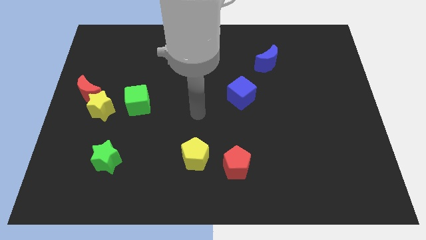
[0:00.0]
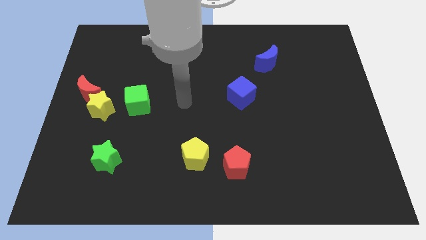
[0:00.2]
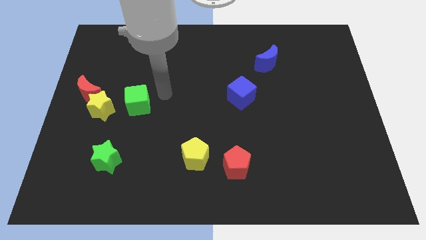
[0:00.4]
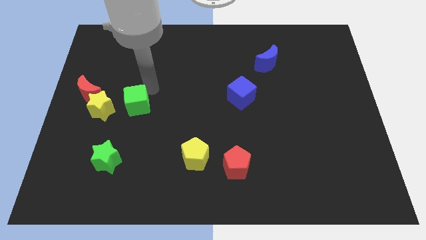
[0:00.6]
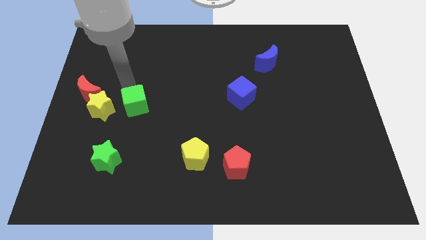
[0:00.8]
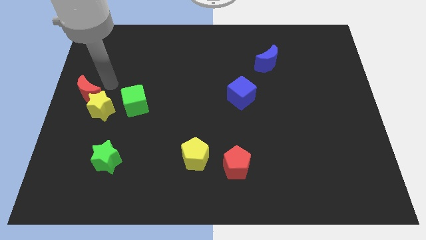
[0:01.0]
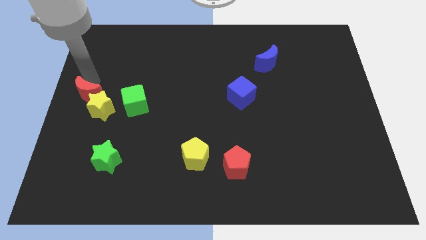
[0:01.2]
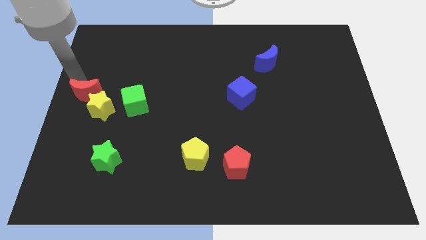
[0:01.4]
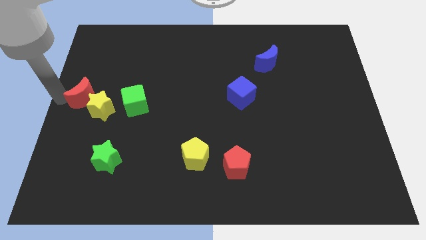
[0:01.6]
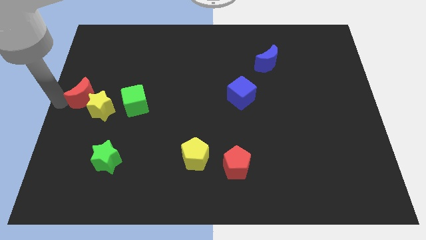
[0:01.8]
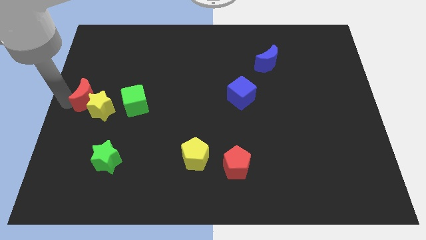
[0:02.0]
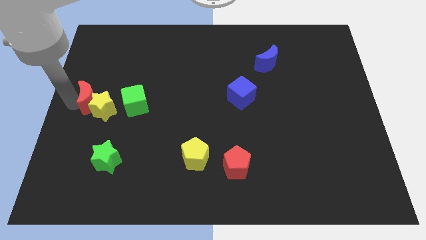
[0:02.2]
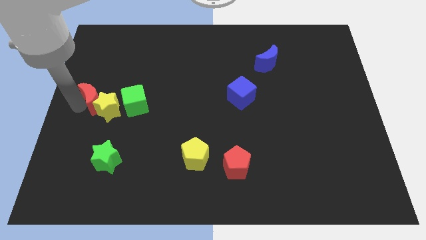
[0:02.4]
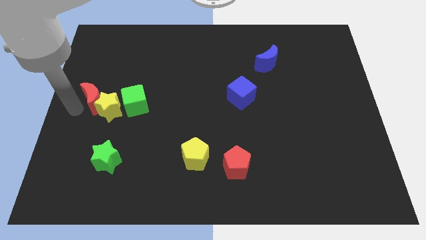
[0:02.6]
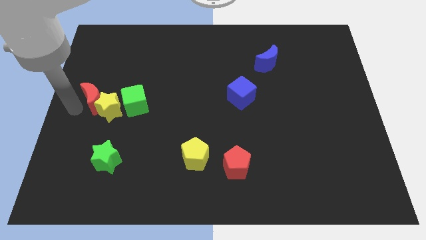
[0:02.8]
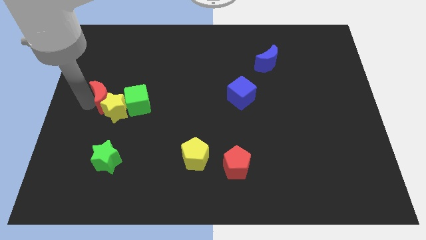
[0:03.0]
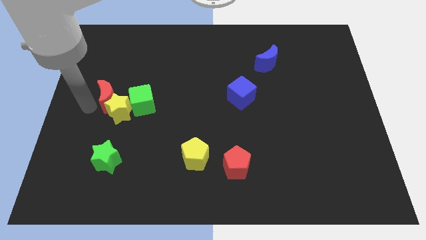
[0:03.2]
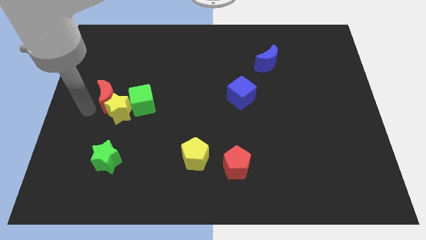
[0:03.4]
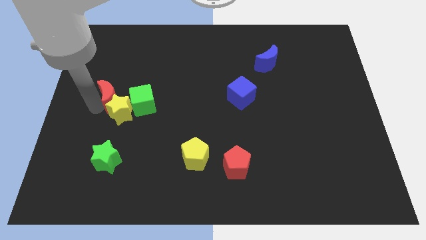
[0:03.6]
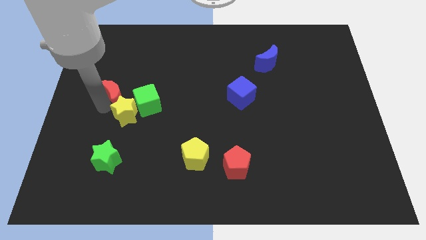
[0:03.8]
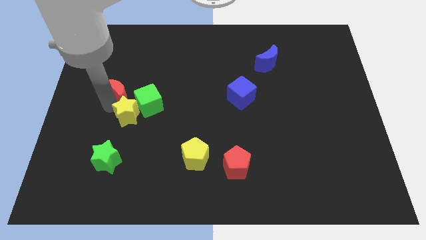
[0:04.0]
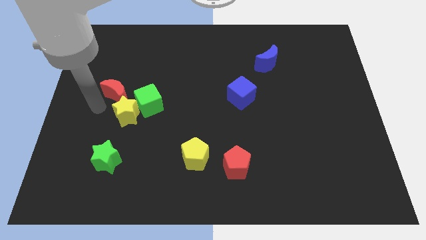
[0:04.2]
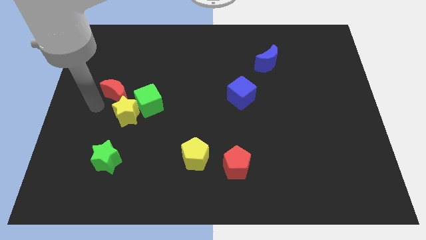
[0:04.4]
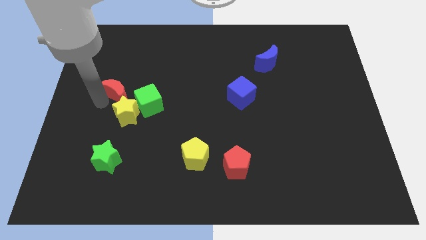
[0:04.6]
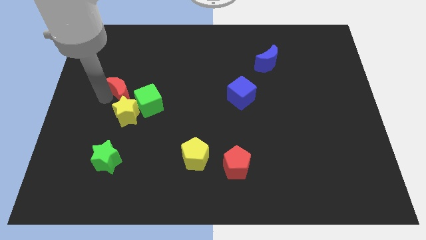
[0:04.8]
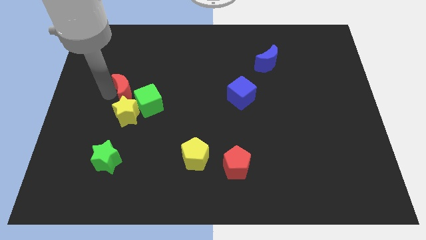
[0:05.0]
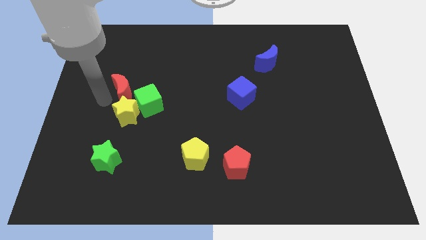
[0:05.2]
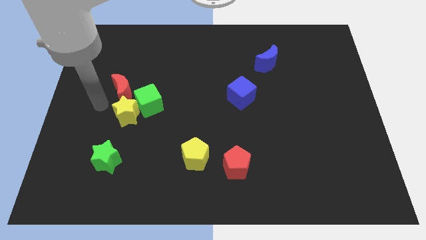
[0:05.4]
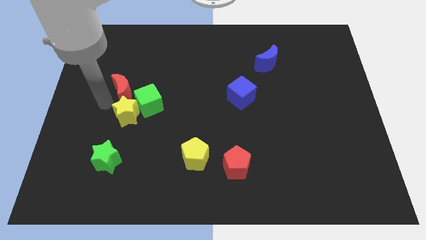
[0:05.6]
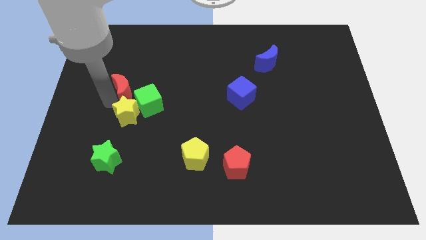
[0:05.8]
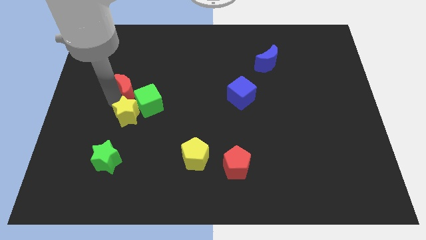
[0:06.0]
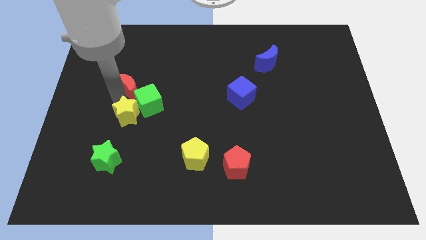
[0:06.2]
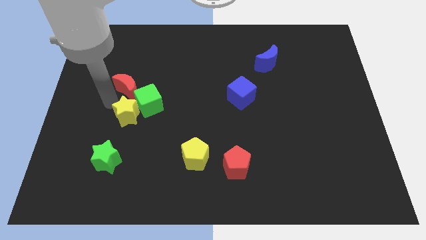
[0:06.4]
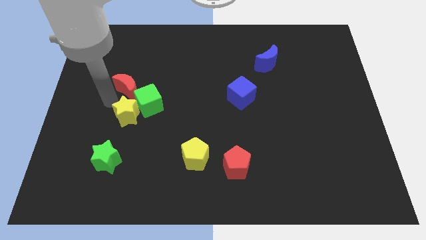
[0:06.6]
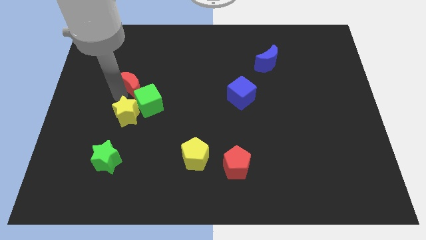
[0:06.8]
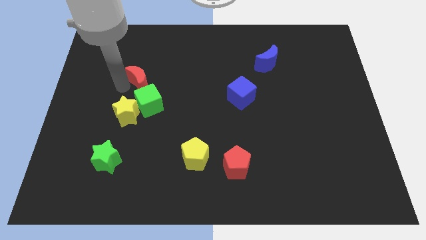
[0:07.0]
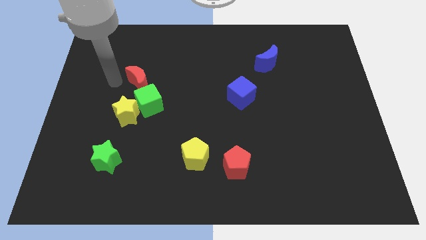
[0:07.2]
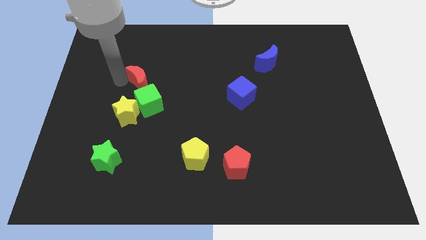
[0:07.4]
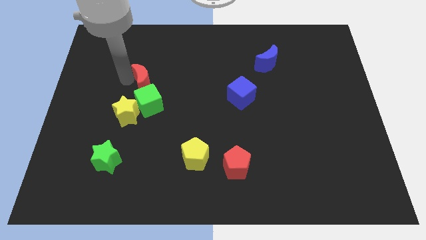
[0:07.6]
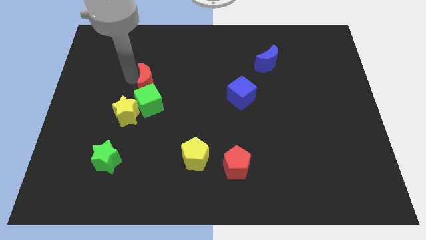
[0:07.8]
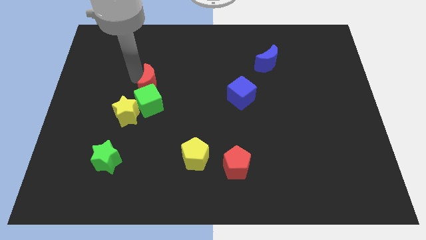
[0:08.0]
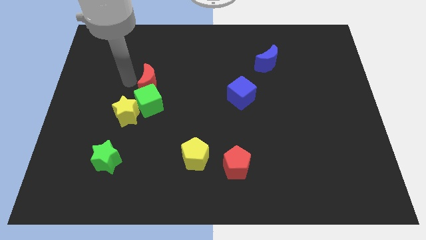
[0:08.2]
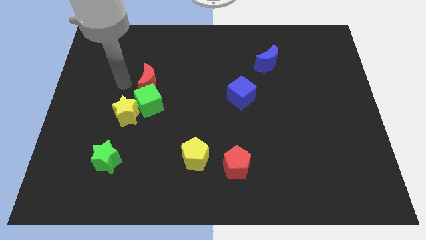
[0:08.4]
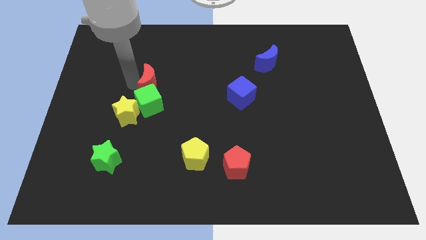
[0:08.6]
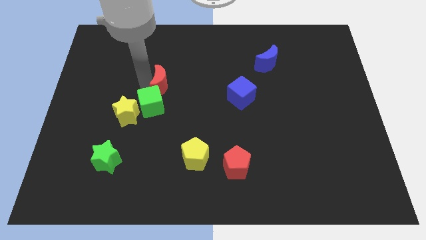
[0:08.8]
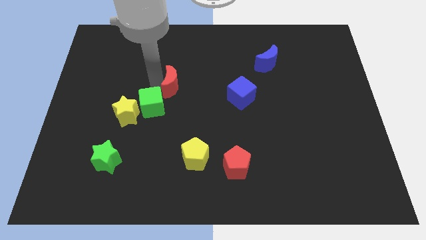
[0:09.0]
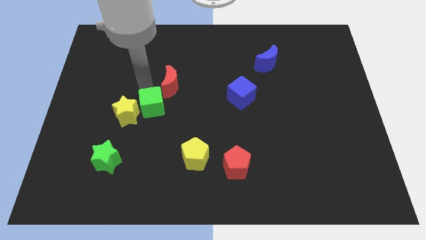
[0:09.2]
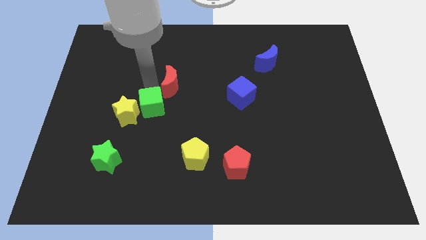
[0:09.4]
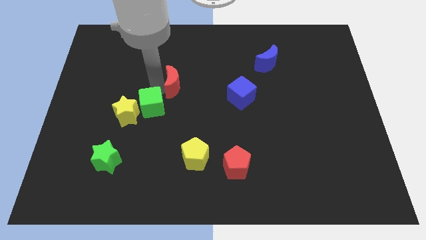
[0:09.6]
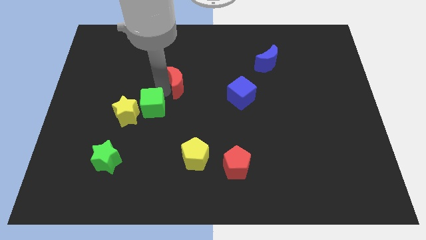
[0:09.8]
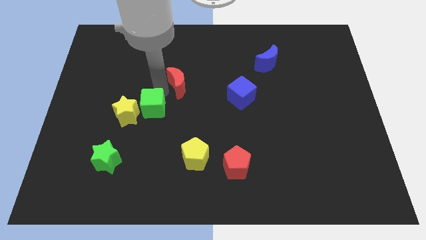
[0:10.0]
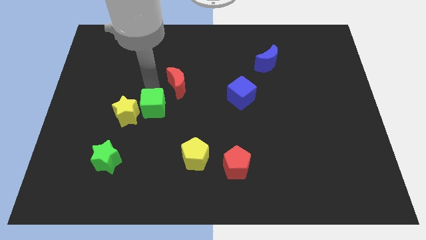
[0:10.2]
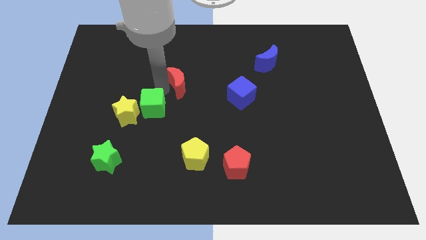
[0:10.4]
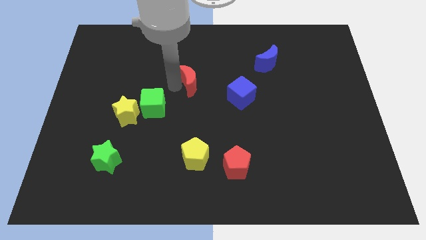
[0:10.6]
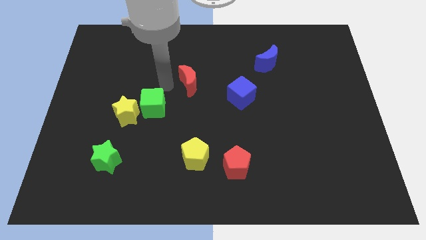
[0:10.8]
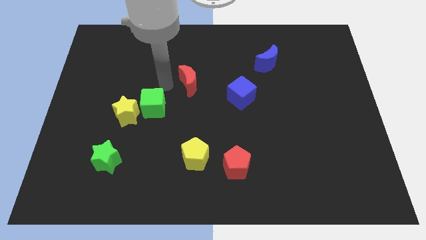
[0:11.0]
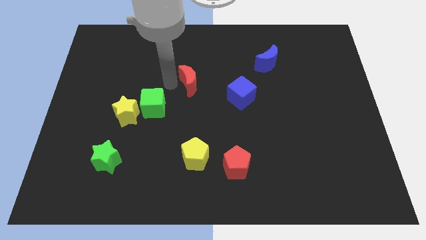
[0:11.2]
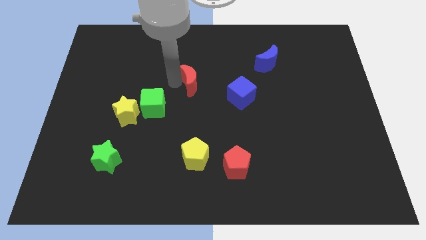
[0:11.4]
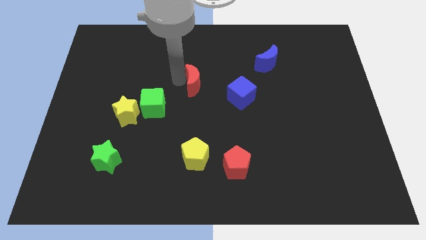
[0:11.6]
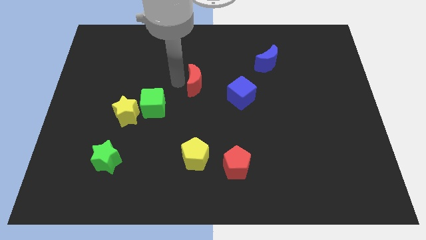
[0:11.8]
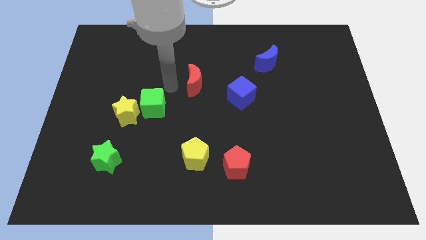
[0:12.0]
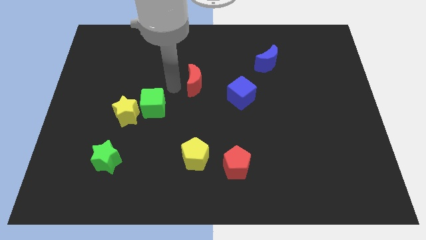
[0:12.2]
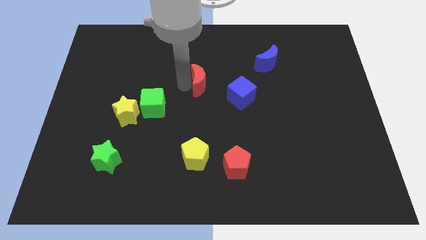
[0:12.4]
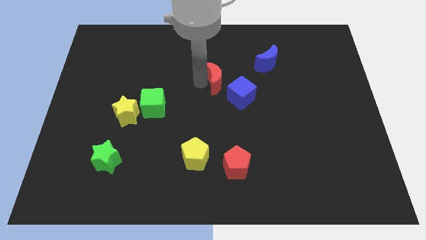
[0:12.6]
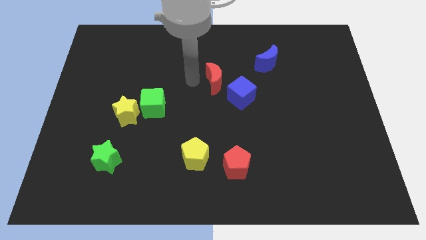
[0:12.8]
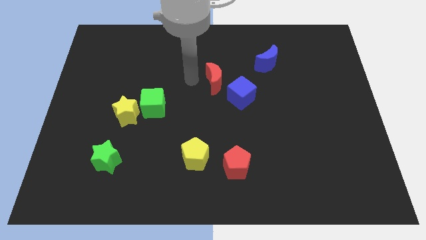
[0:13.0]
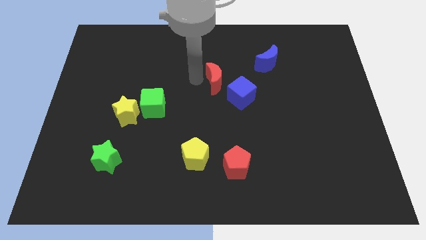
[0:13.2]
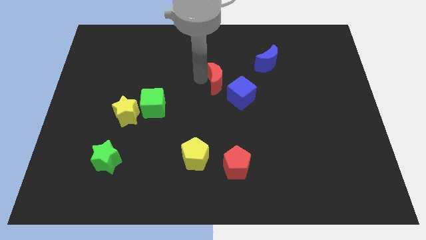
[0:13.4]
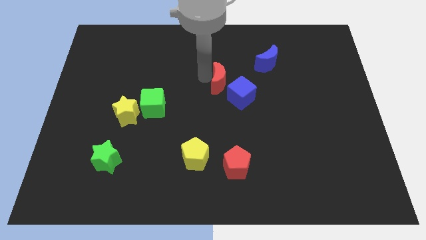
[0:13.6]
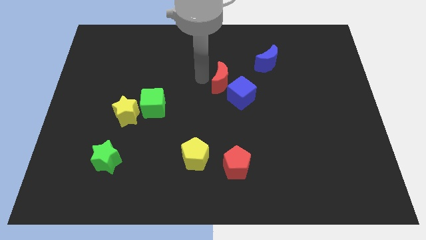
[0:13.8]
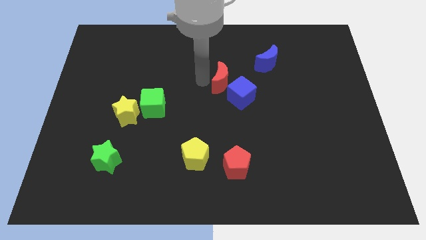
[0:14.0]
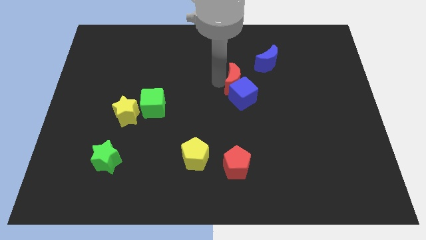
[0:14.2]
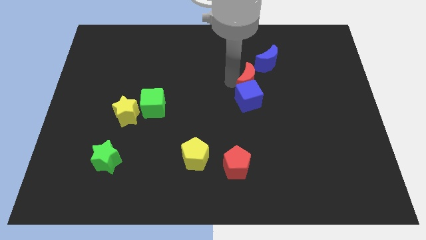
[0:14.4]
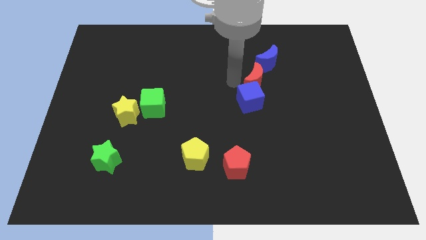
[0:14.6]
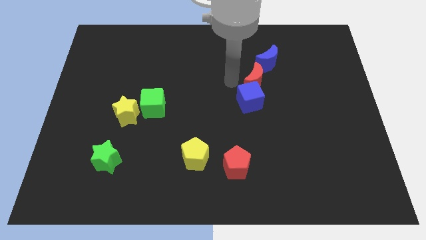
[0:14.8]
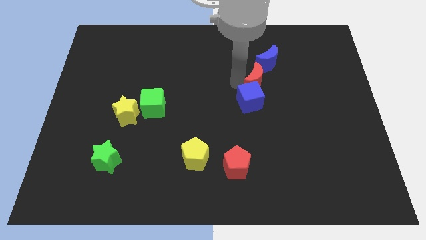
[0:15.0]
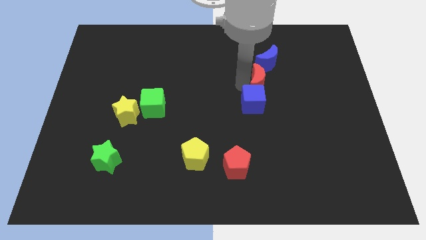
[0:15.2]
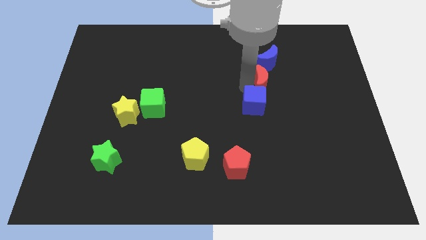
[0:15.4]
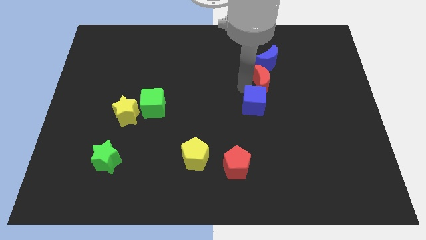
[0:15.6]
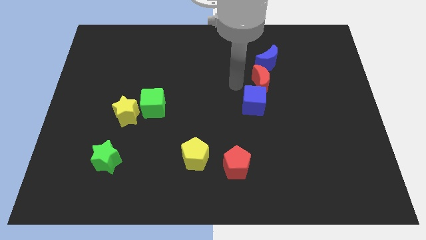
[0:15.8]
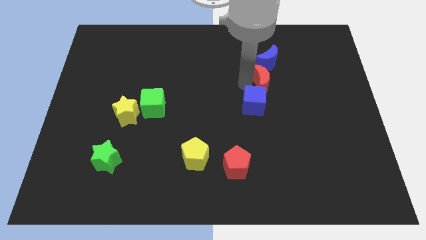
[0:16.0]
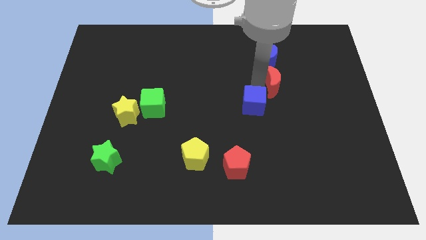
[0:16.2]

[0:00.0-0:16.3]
move the red moon diagonally down and to the right of the blue moon
